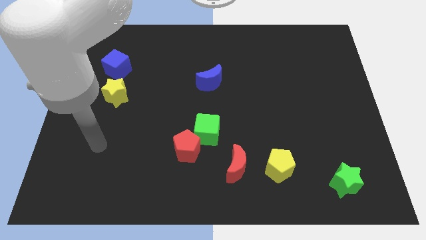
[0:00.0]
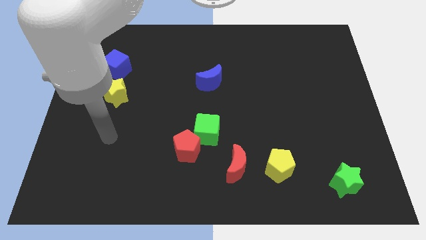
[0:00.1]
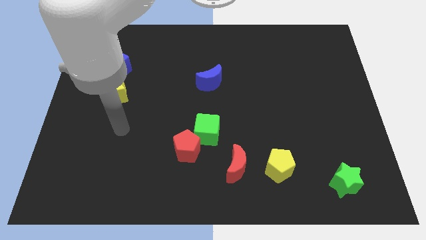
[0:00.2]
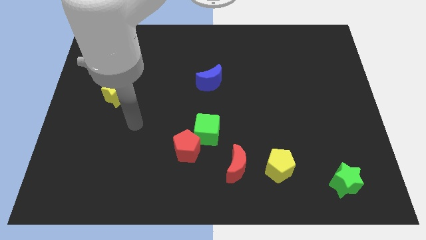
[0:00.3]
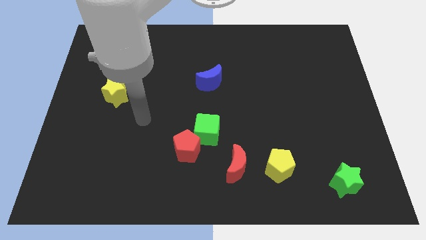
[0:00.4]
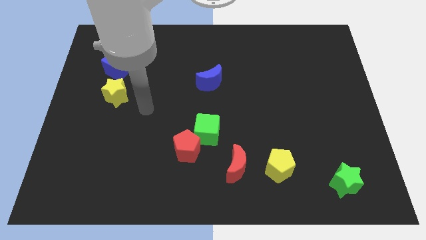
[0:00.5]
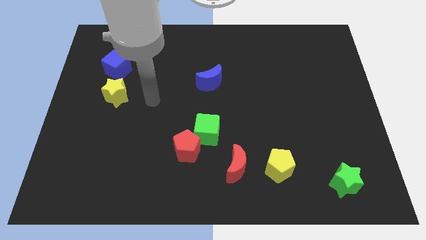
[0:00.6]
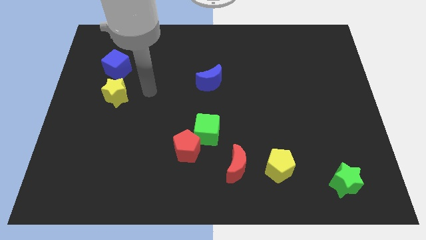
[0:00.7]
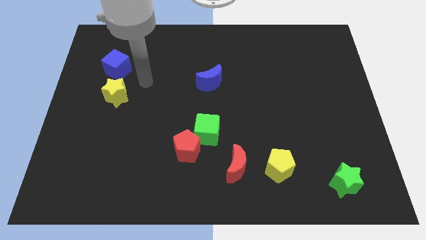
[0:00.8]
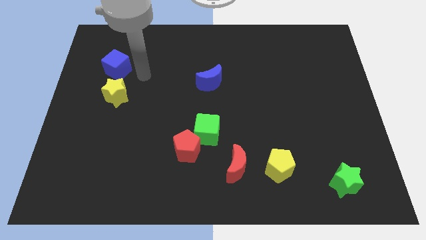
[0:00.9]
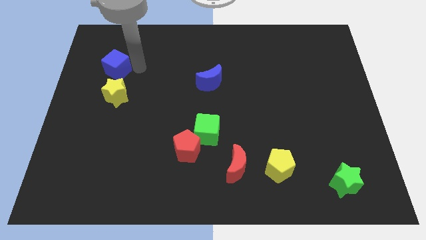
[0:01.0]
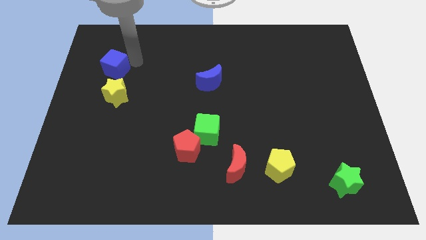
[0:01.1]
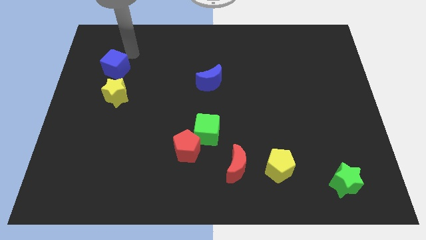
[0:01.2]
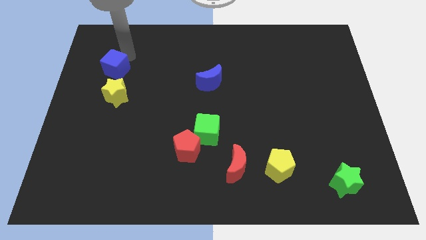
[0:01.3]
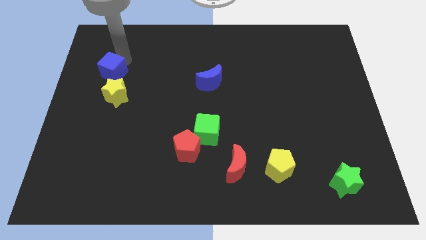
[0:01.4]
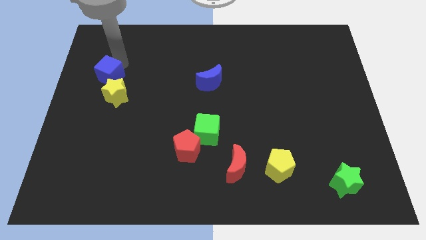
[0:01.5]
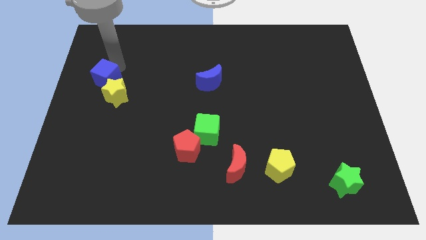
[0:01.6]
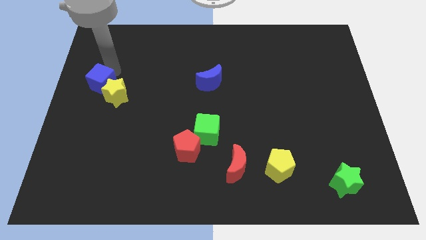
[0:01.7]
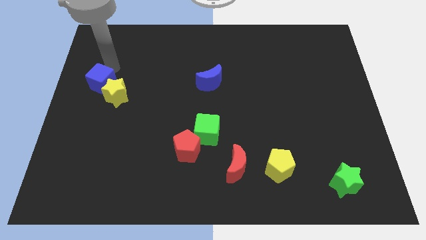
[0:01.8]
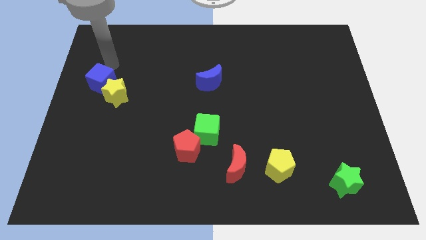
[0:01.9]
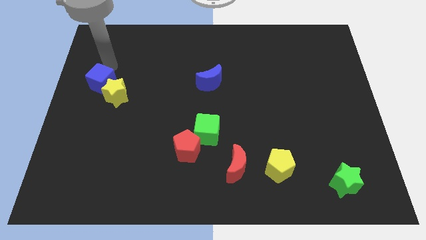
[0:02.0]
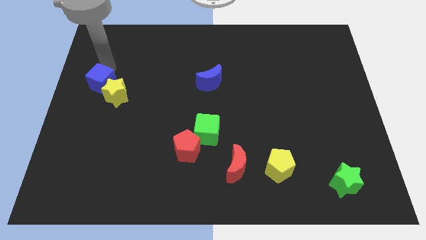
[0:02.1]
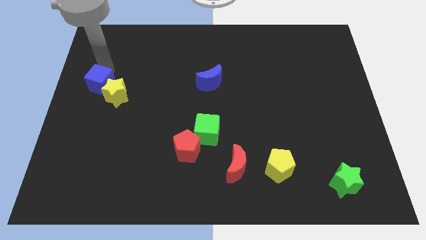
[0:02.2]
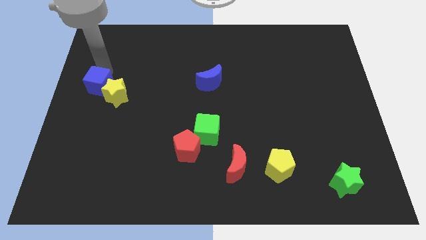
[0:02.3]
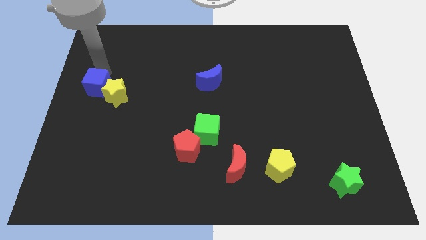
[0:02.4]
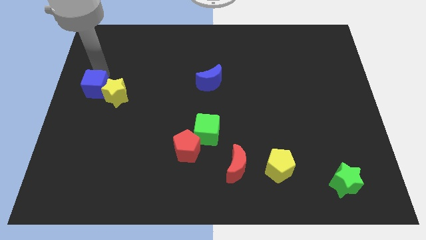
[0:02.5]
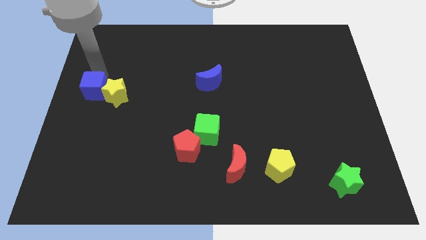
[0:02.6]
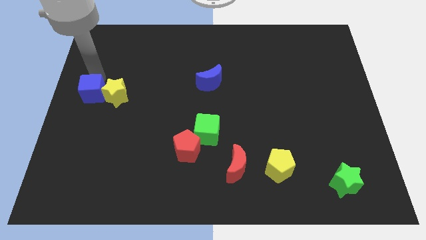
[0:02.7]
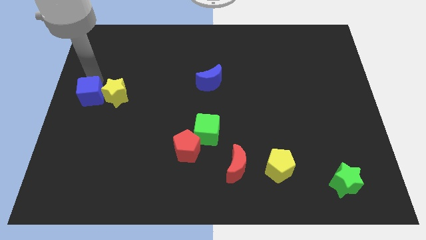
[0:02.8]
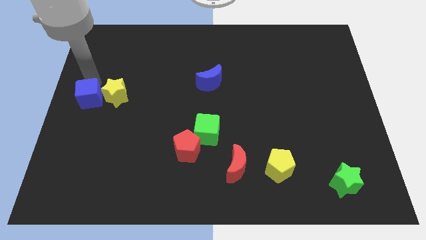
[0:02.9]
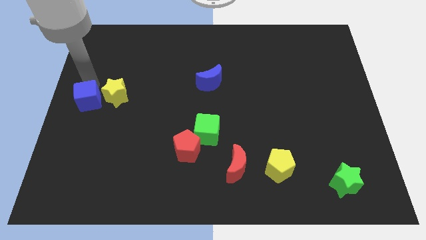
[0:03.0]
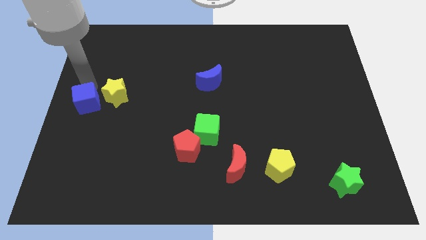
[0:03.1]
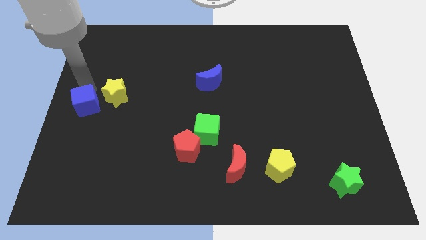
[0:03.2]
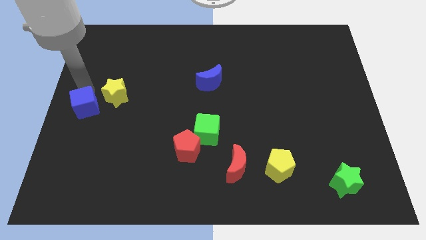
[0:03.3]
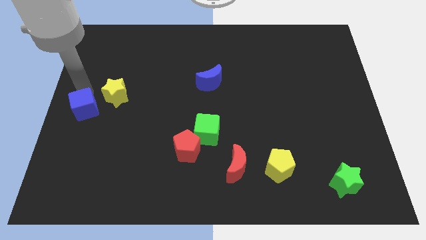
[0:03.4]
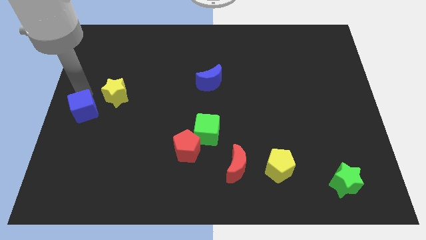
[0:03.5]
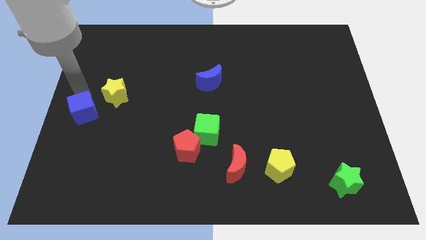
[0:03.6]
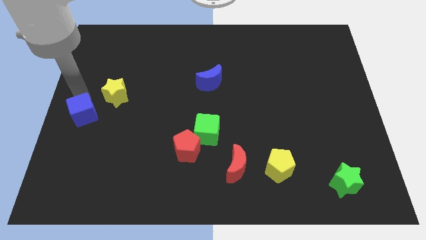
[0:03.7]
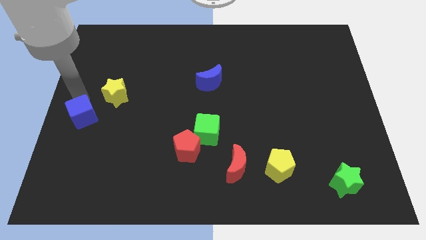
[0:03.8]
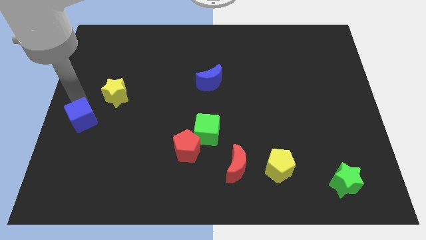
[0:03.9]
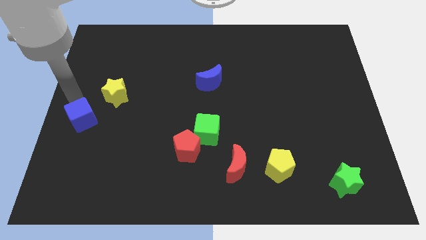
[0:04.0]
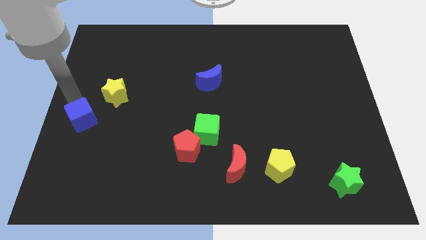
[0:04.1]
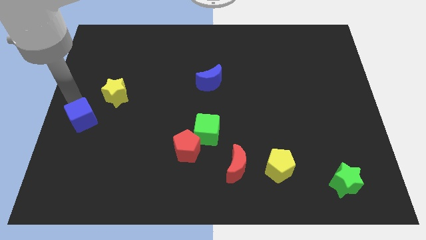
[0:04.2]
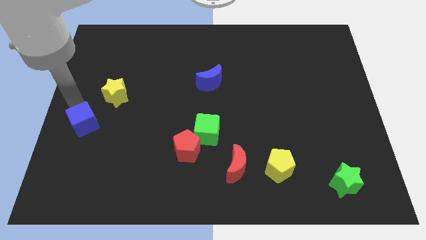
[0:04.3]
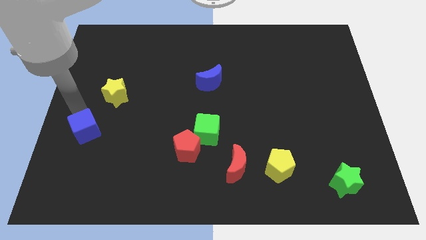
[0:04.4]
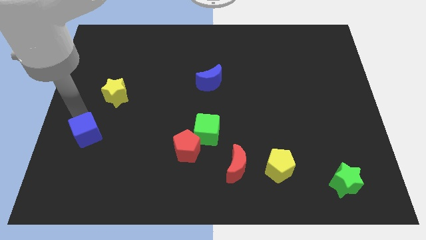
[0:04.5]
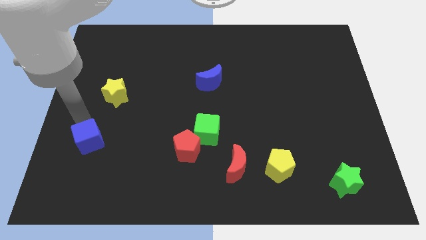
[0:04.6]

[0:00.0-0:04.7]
move the blue cube downwards

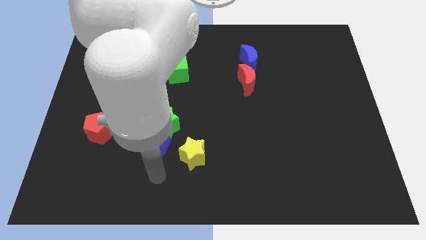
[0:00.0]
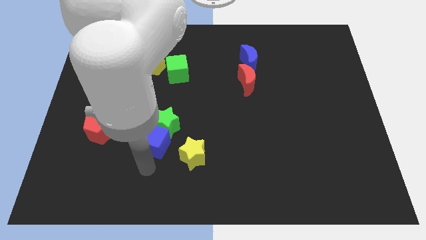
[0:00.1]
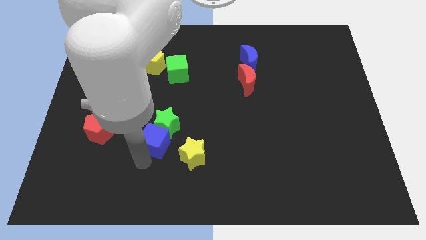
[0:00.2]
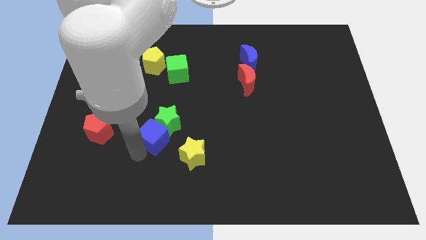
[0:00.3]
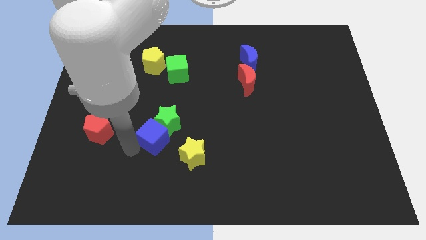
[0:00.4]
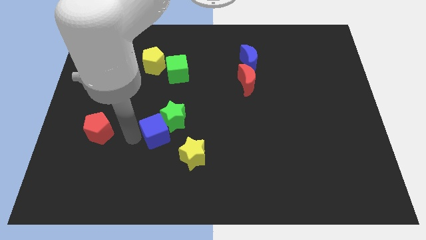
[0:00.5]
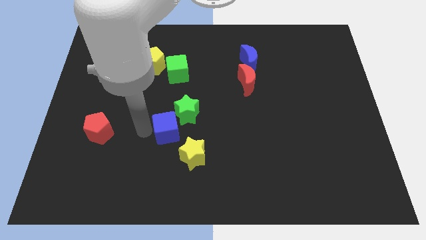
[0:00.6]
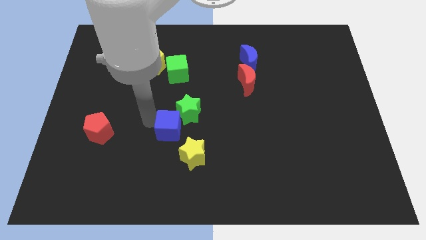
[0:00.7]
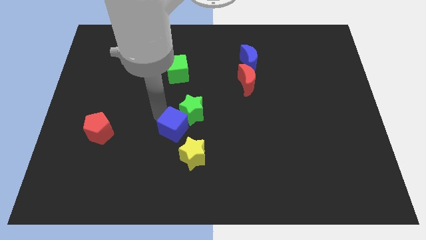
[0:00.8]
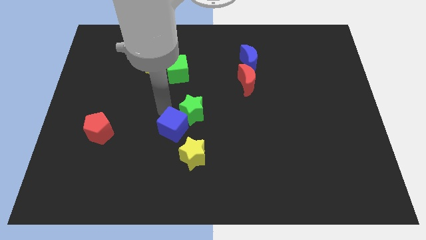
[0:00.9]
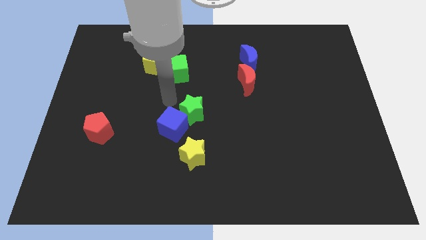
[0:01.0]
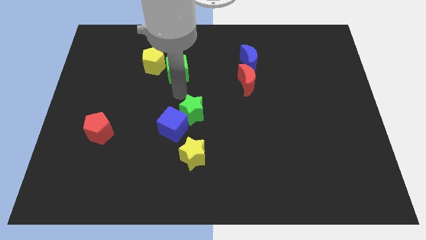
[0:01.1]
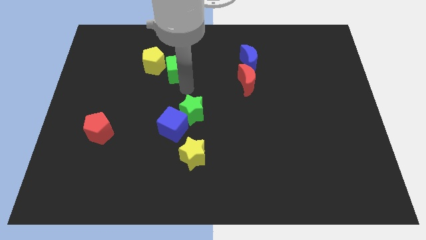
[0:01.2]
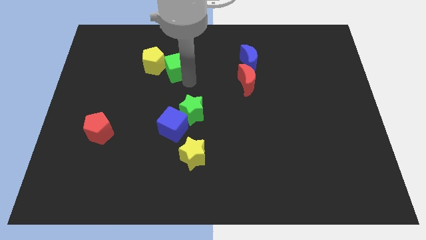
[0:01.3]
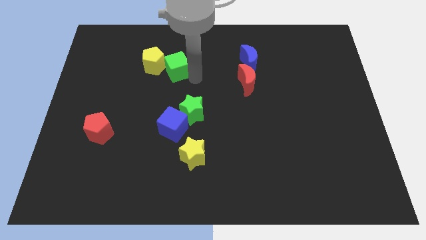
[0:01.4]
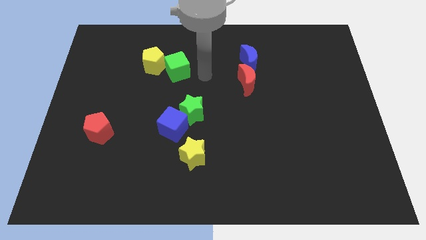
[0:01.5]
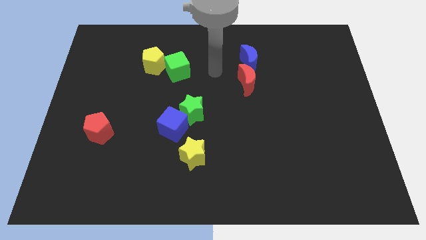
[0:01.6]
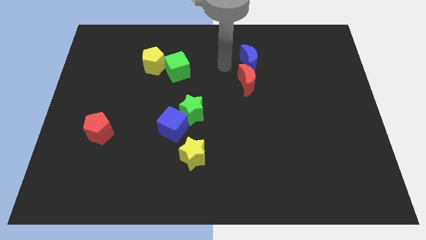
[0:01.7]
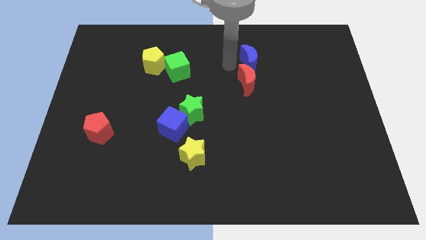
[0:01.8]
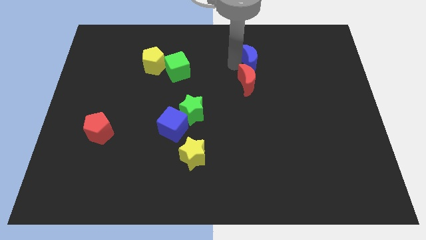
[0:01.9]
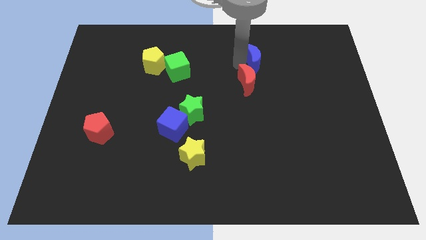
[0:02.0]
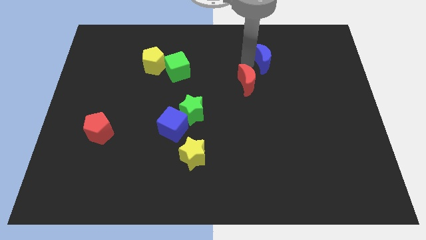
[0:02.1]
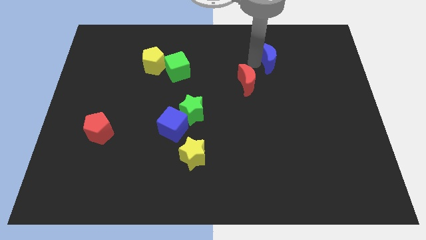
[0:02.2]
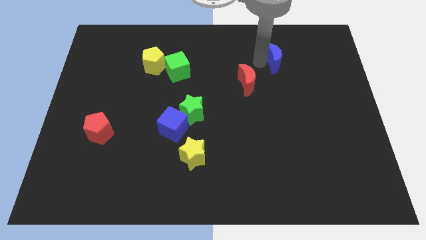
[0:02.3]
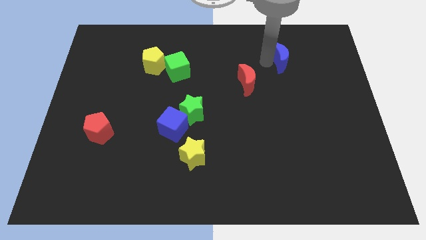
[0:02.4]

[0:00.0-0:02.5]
slightly slide the blue moon right

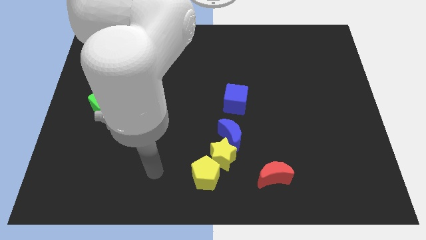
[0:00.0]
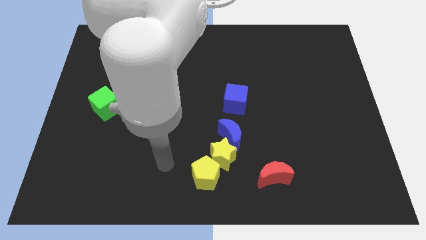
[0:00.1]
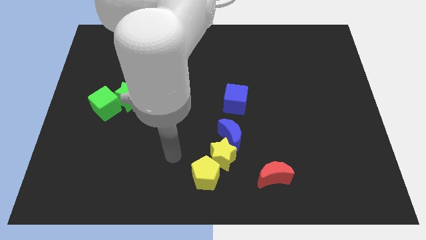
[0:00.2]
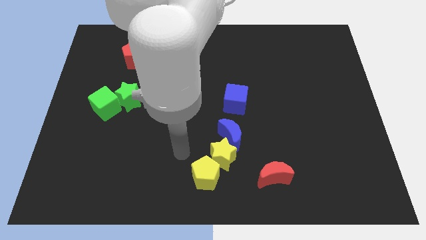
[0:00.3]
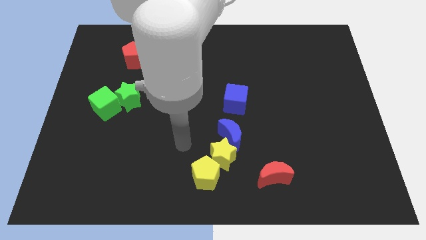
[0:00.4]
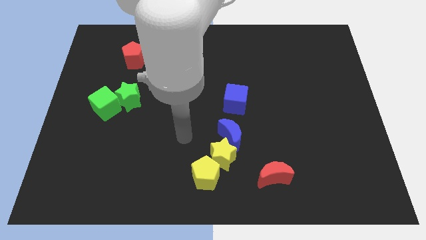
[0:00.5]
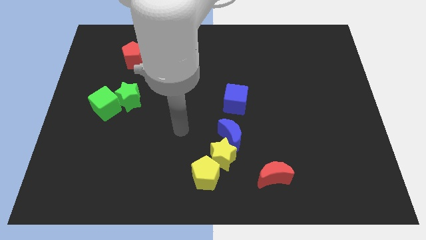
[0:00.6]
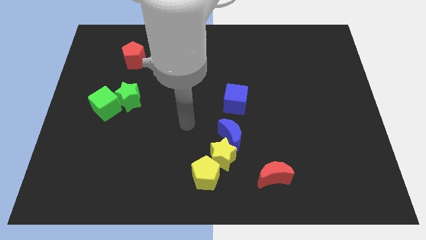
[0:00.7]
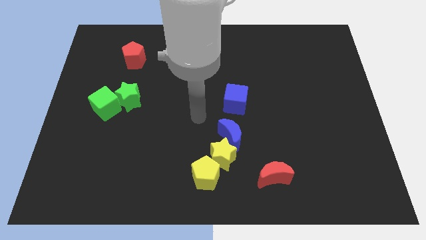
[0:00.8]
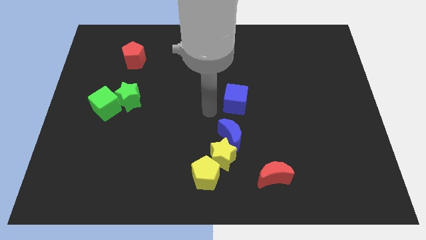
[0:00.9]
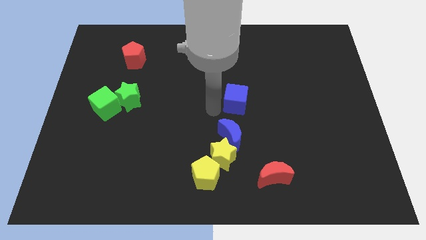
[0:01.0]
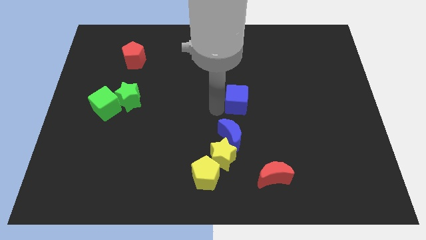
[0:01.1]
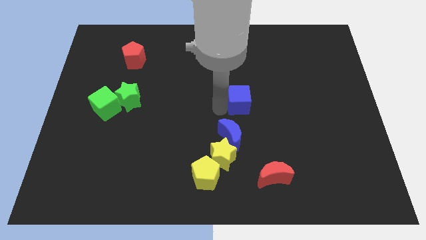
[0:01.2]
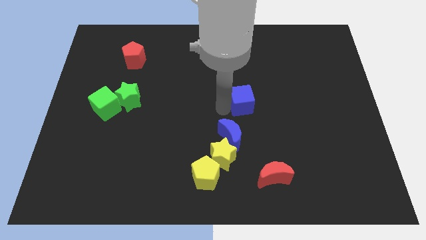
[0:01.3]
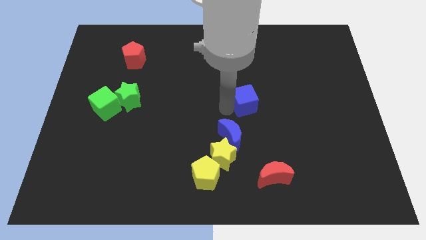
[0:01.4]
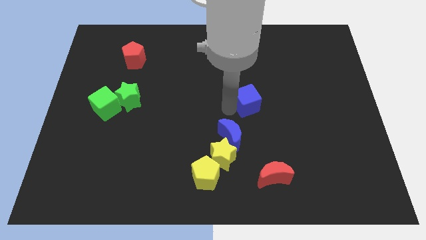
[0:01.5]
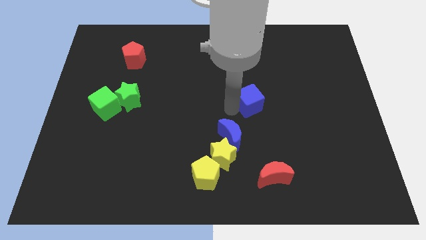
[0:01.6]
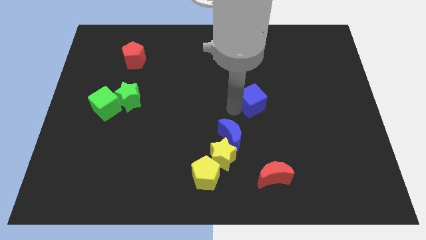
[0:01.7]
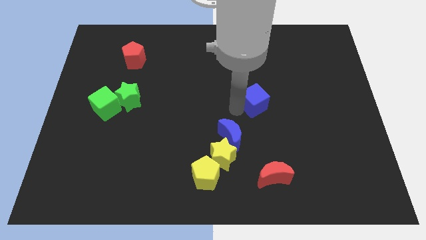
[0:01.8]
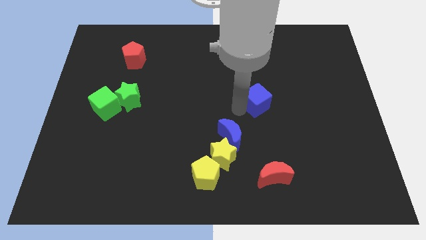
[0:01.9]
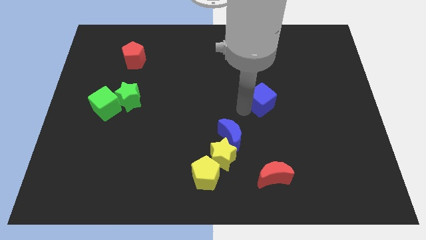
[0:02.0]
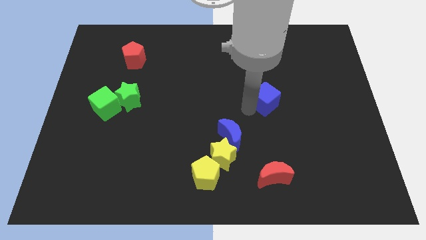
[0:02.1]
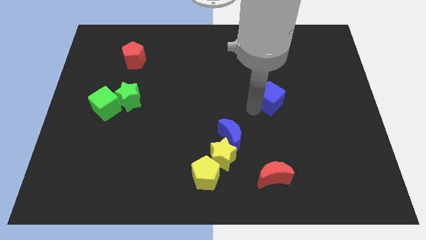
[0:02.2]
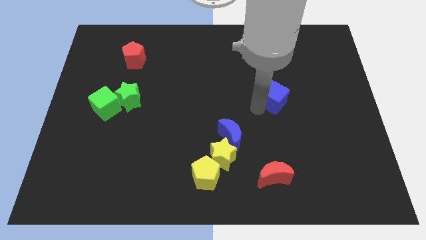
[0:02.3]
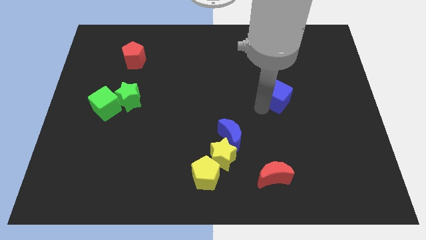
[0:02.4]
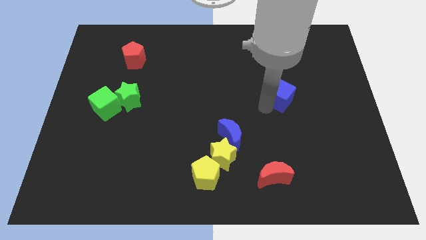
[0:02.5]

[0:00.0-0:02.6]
move the blue cube up and right diagonally a bit
